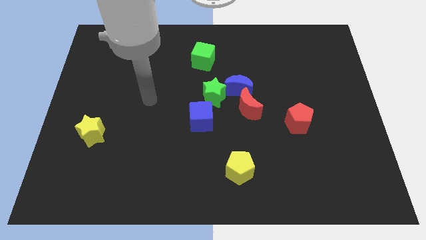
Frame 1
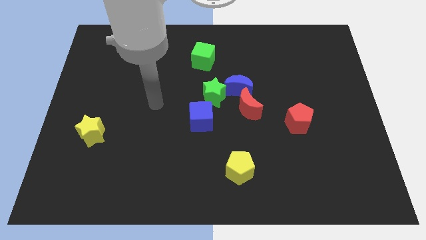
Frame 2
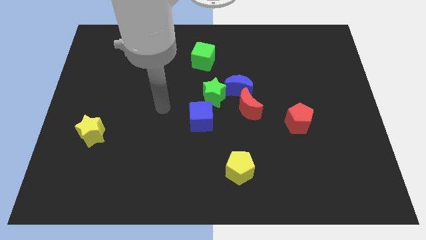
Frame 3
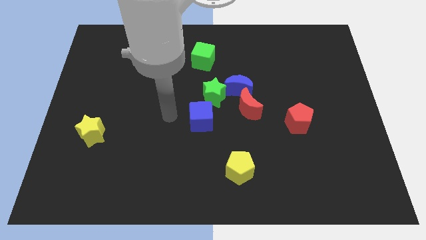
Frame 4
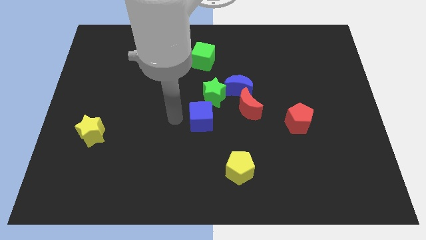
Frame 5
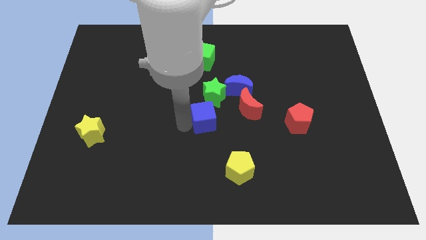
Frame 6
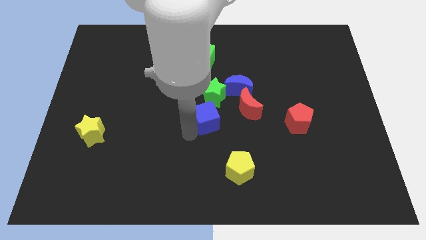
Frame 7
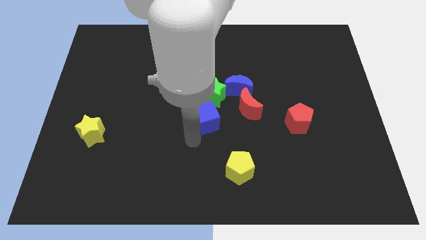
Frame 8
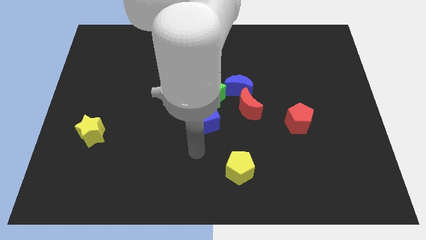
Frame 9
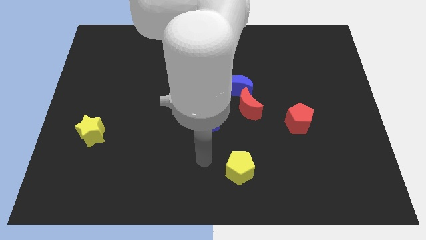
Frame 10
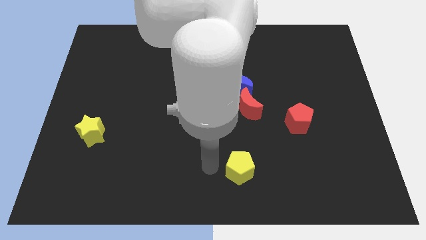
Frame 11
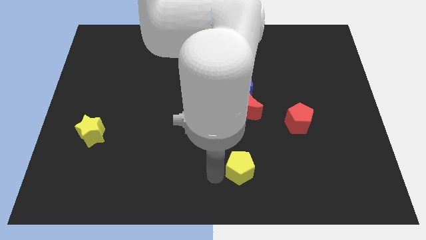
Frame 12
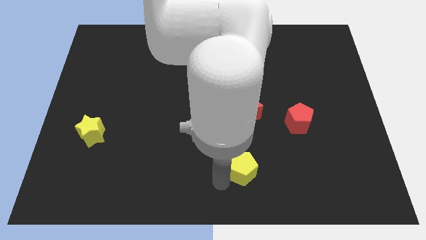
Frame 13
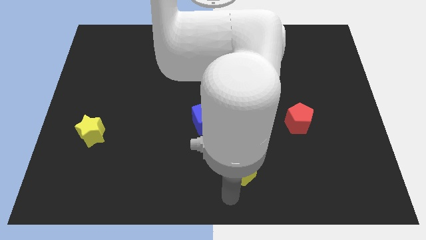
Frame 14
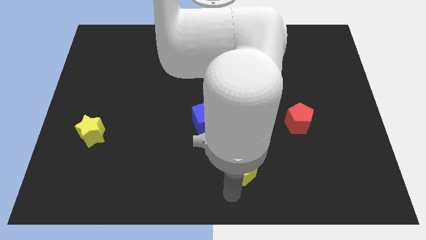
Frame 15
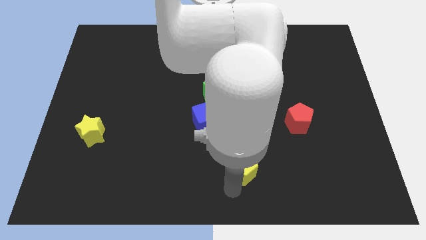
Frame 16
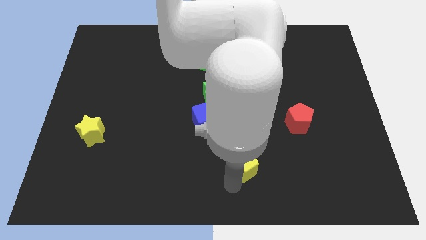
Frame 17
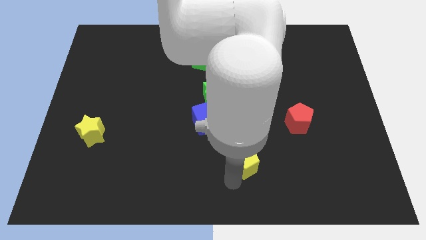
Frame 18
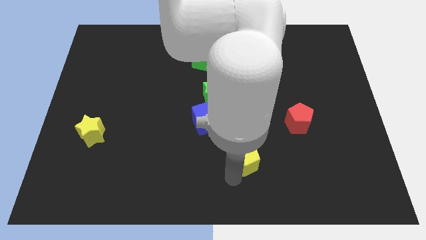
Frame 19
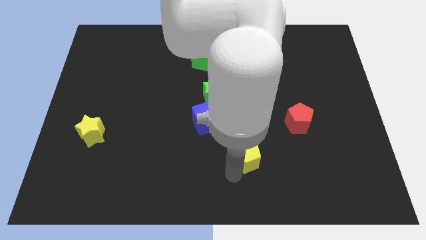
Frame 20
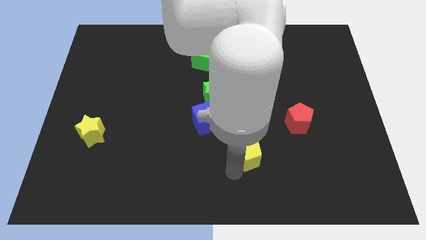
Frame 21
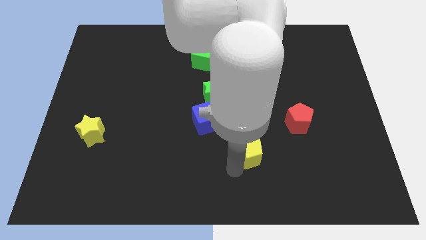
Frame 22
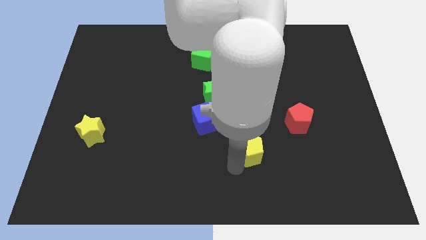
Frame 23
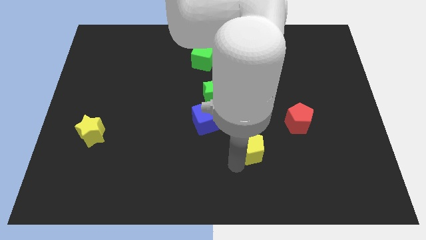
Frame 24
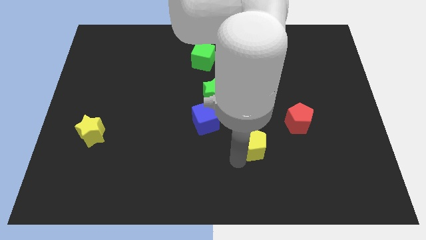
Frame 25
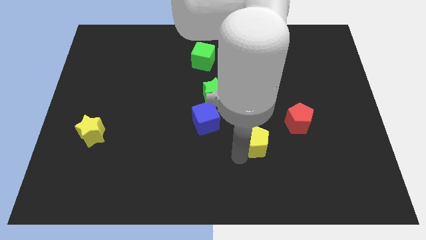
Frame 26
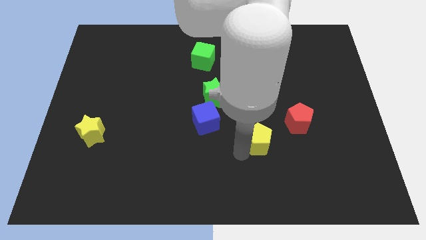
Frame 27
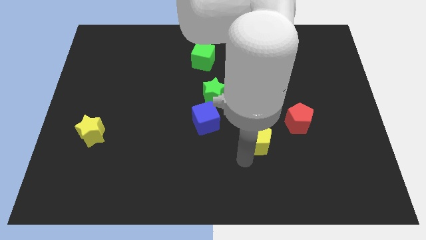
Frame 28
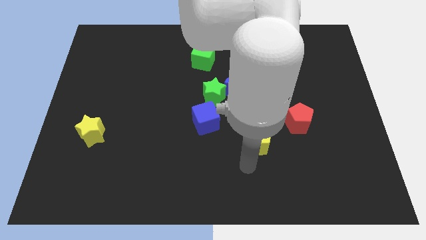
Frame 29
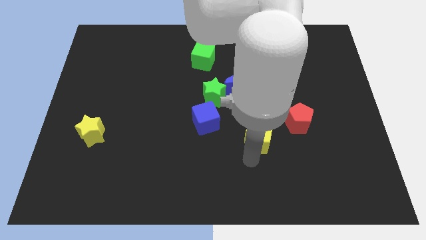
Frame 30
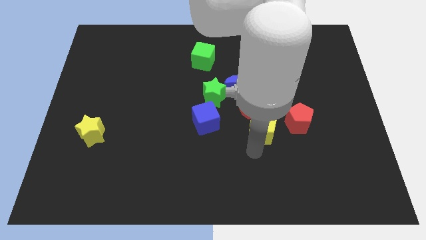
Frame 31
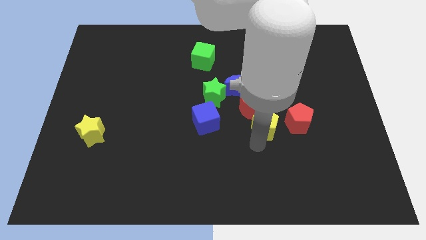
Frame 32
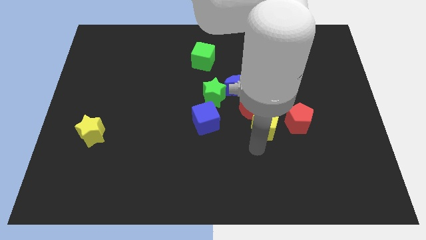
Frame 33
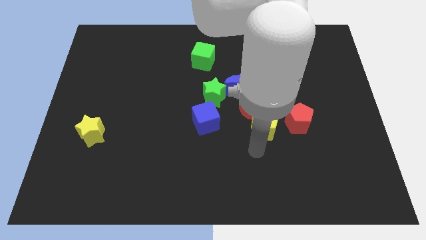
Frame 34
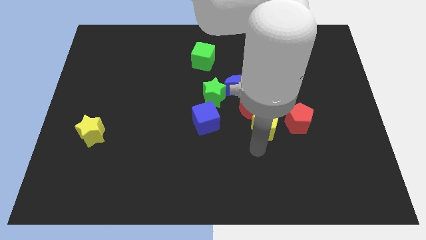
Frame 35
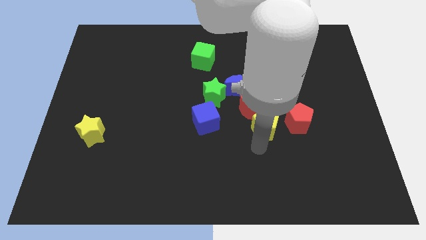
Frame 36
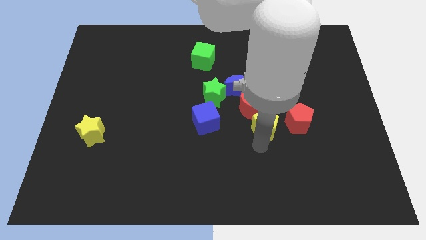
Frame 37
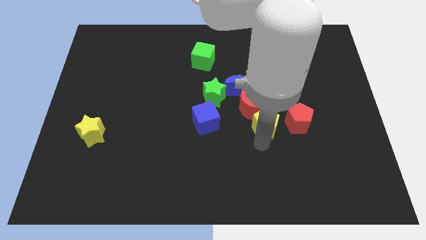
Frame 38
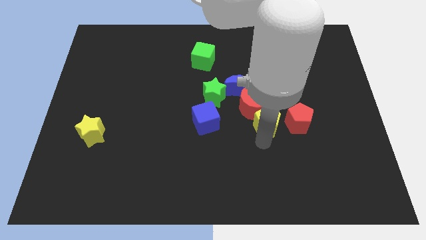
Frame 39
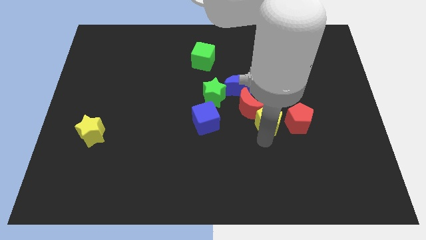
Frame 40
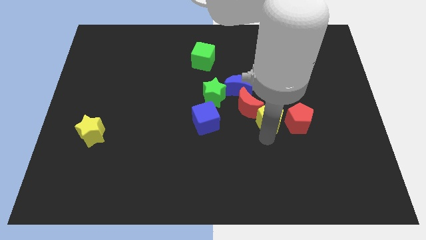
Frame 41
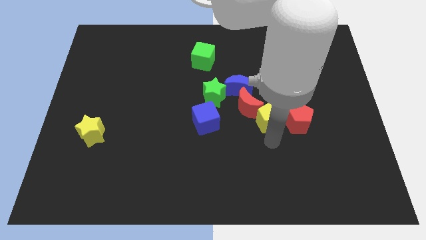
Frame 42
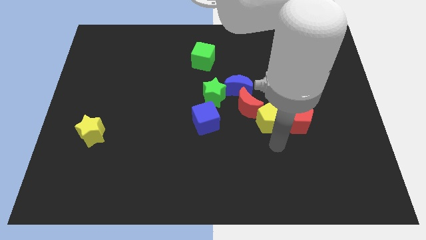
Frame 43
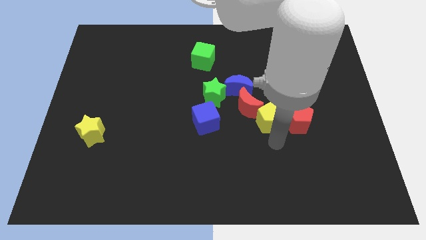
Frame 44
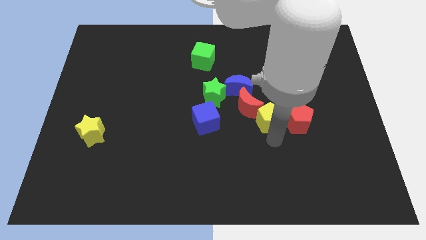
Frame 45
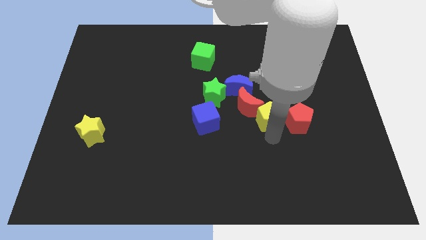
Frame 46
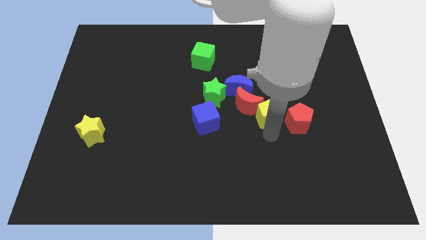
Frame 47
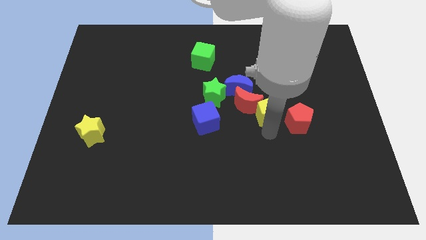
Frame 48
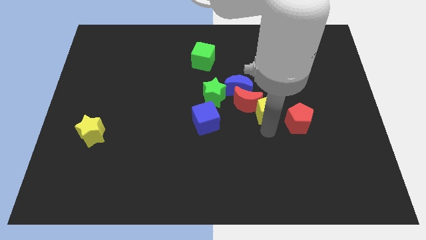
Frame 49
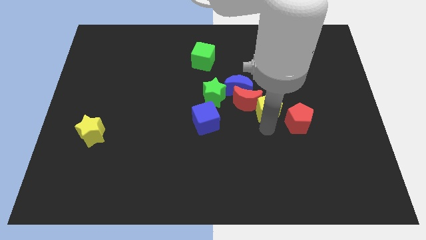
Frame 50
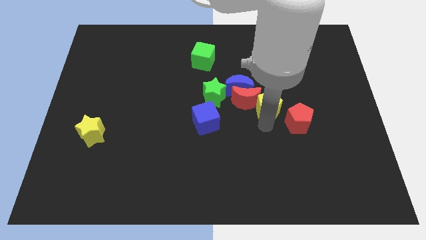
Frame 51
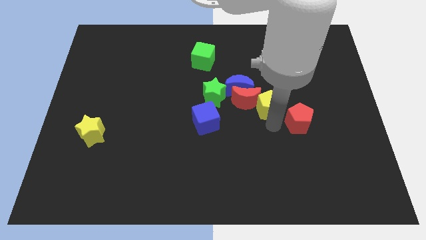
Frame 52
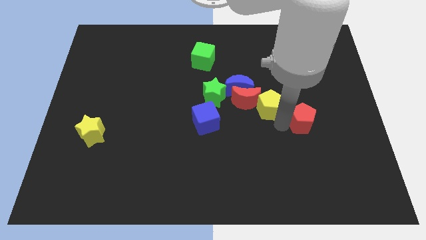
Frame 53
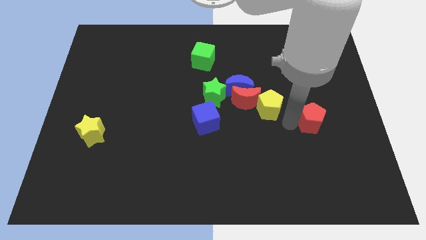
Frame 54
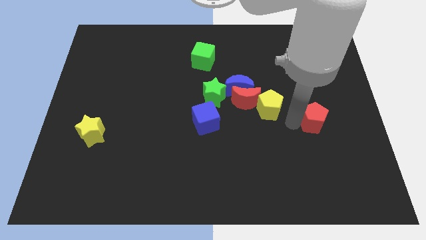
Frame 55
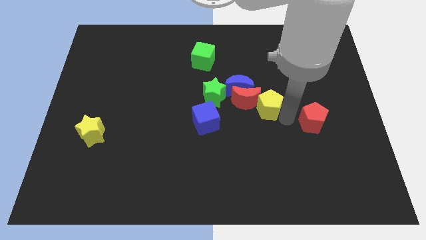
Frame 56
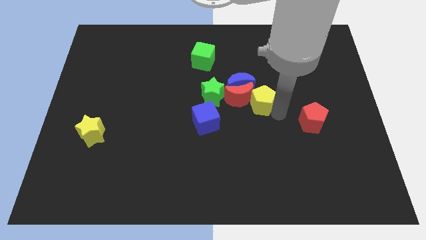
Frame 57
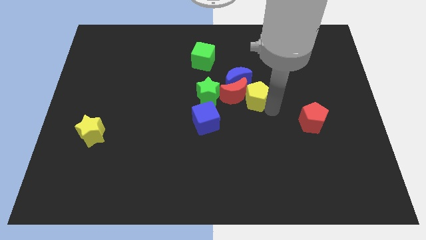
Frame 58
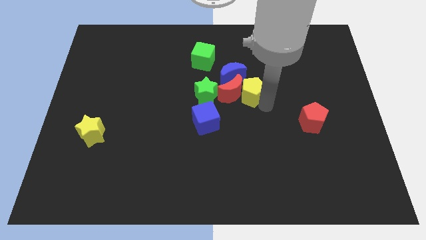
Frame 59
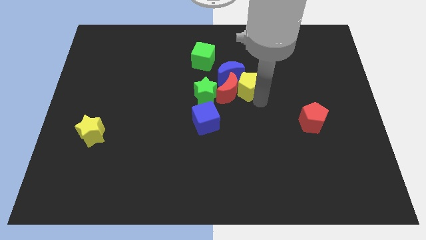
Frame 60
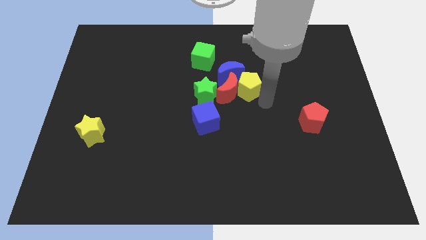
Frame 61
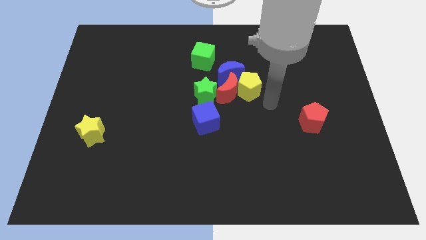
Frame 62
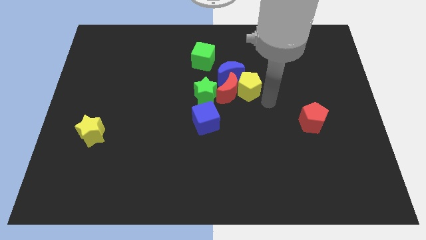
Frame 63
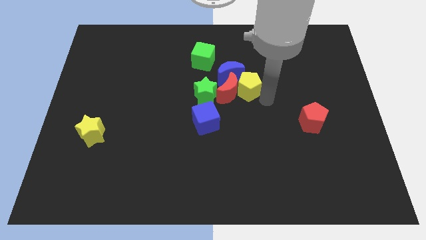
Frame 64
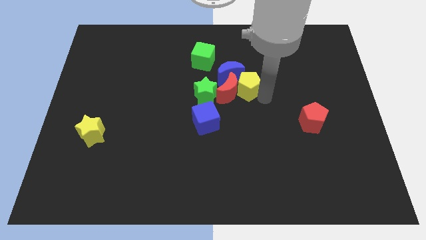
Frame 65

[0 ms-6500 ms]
put the yellow pentagon towards the blue moon

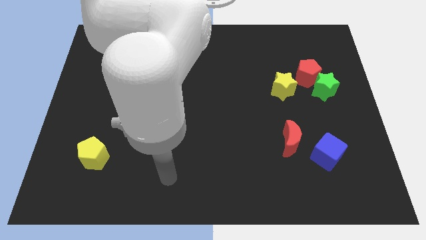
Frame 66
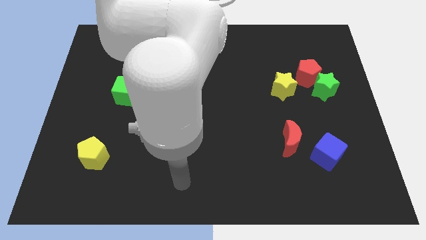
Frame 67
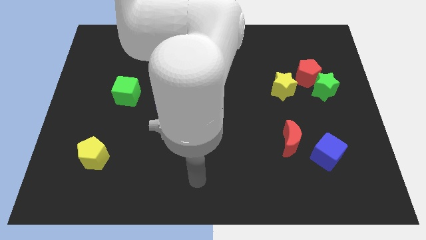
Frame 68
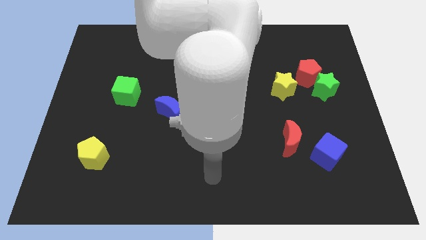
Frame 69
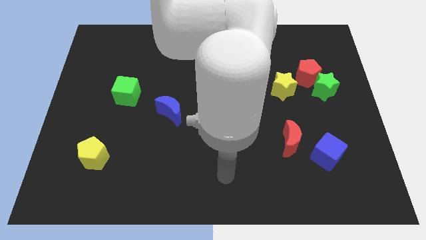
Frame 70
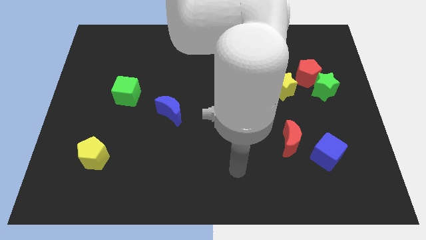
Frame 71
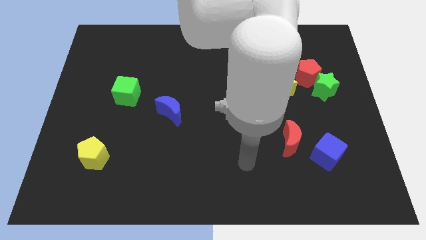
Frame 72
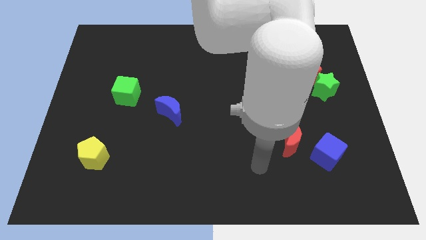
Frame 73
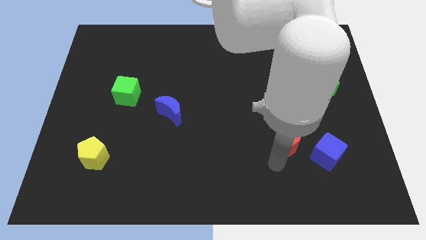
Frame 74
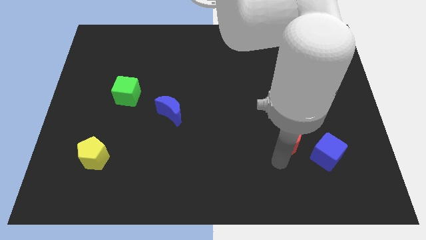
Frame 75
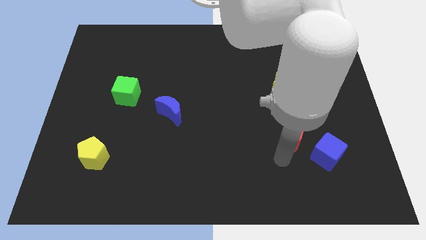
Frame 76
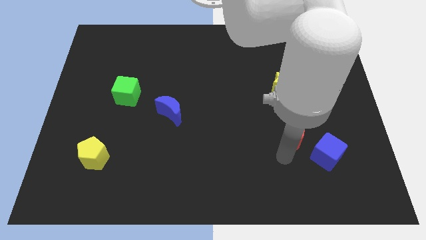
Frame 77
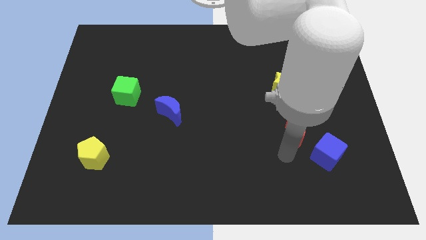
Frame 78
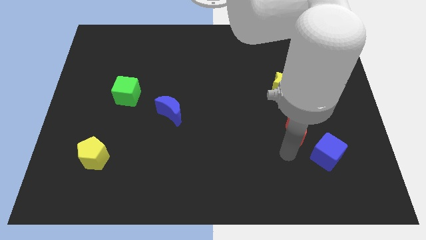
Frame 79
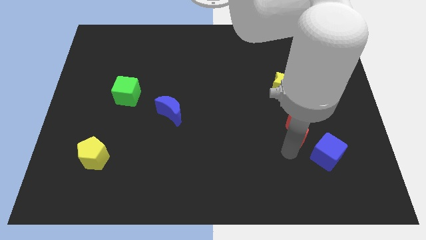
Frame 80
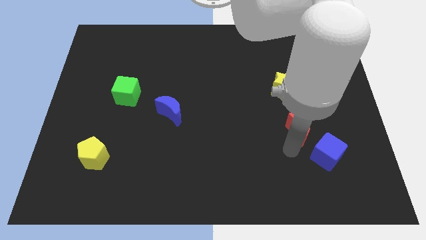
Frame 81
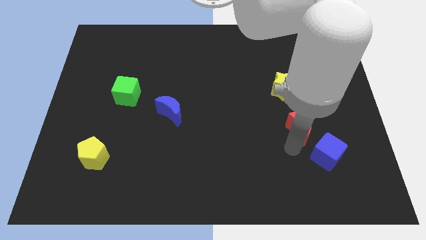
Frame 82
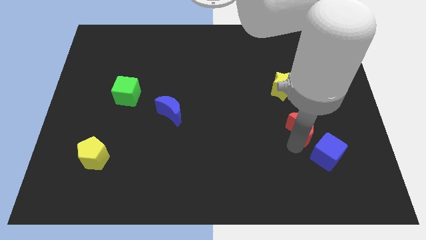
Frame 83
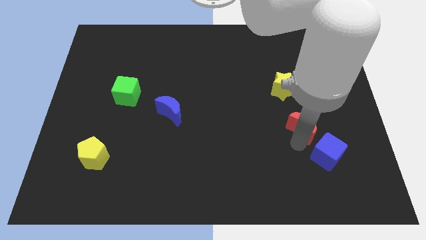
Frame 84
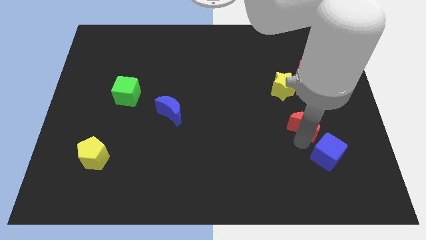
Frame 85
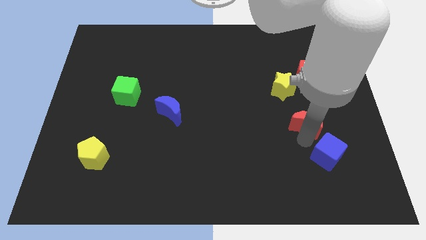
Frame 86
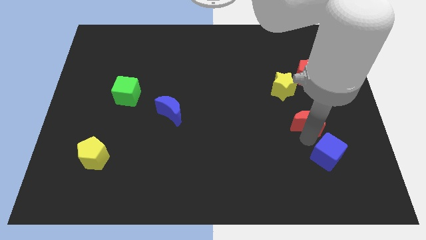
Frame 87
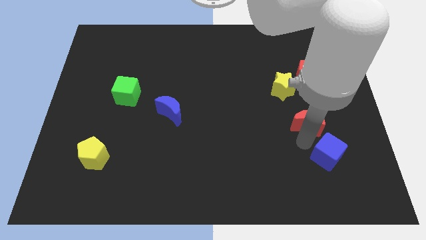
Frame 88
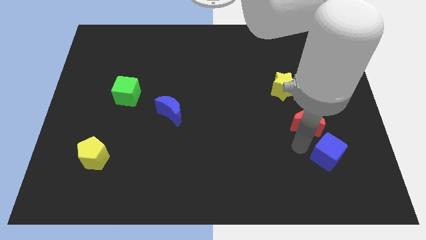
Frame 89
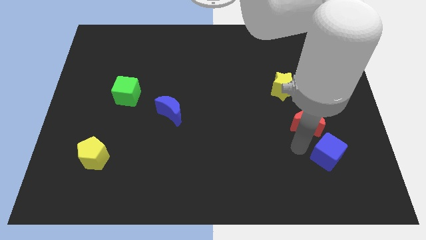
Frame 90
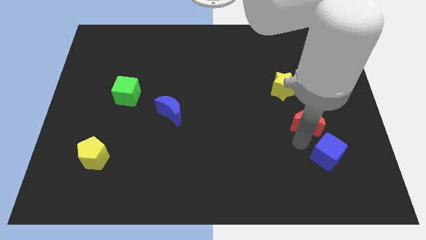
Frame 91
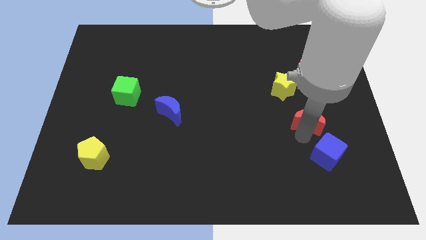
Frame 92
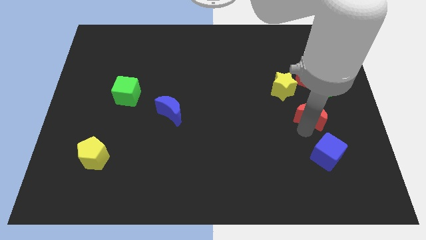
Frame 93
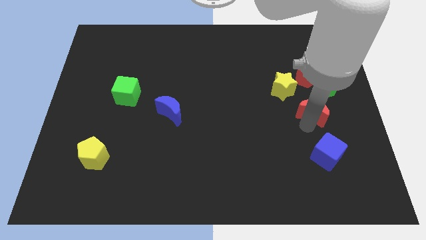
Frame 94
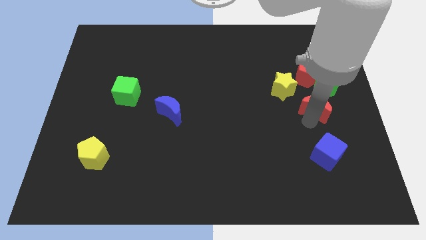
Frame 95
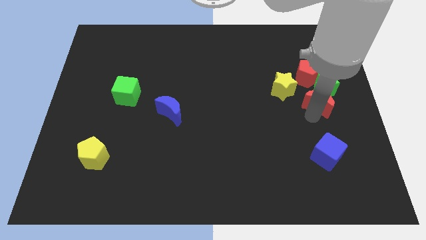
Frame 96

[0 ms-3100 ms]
push the red moon towards the green star
